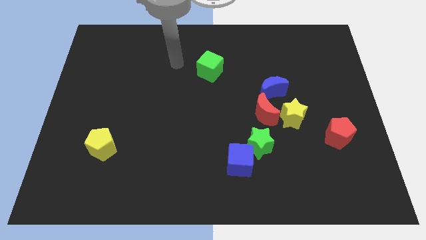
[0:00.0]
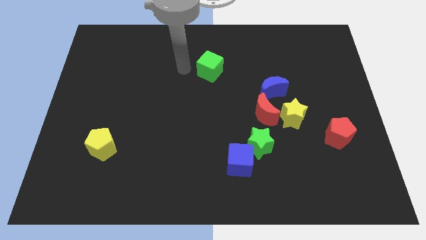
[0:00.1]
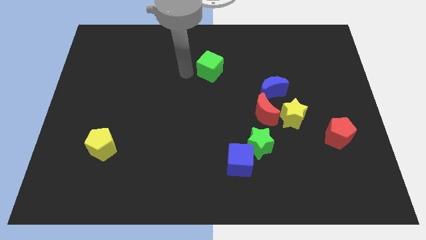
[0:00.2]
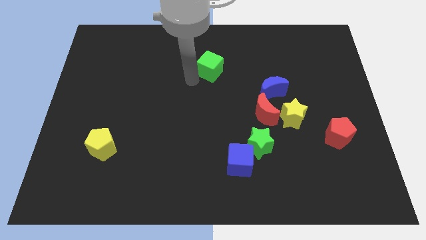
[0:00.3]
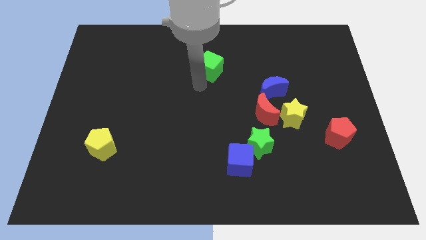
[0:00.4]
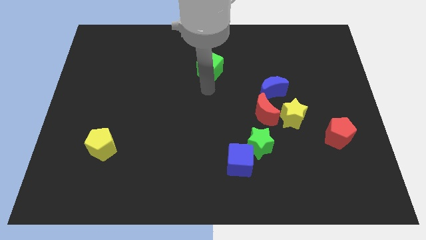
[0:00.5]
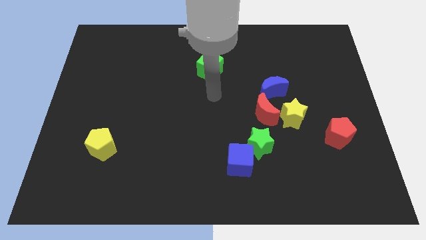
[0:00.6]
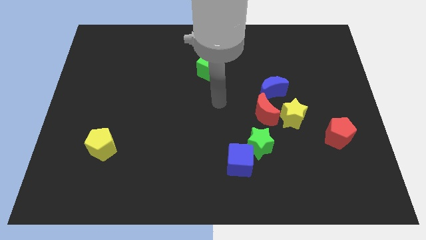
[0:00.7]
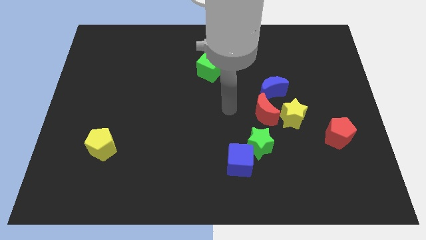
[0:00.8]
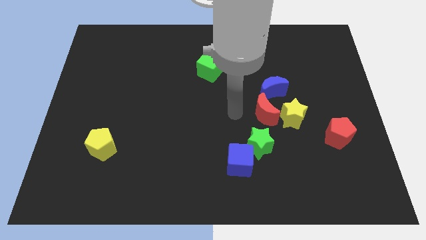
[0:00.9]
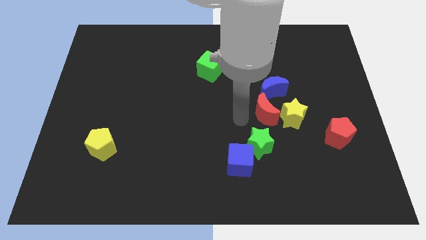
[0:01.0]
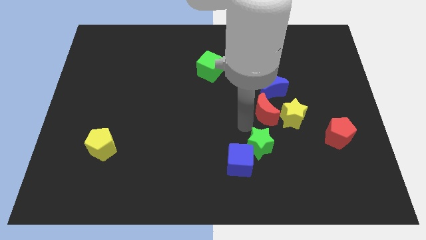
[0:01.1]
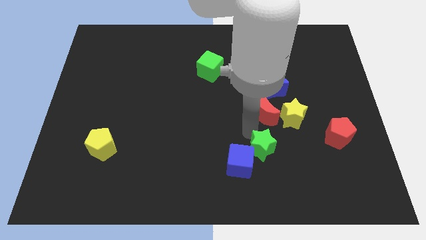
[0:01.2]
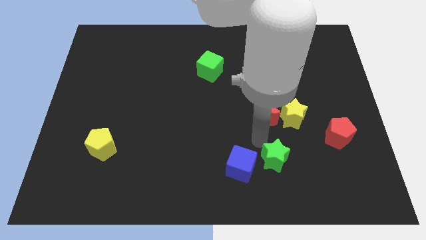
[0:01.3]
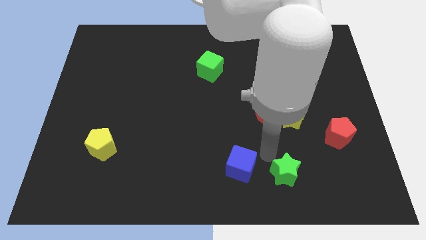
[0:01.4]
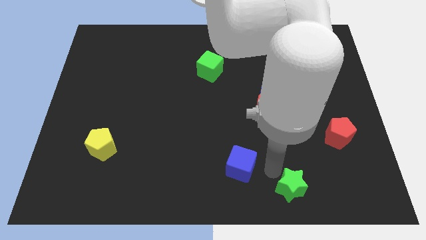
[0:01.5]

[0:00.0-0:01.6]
move the blue cube away from the green star

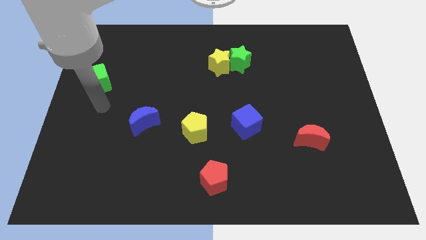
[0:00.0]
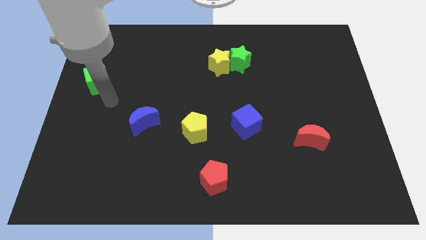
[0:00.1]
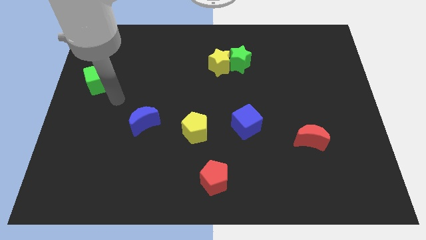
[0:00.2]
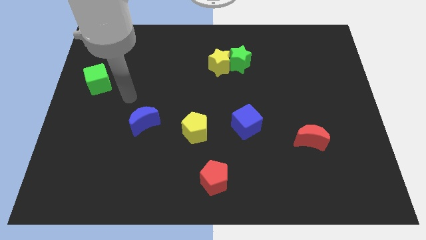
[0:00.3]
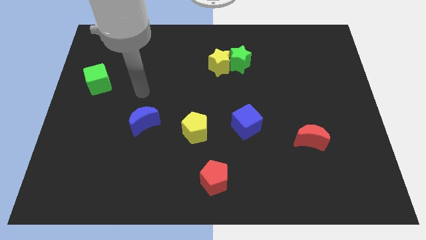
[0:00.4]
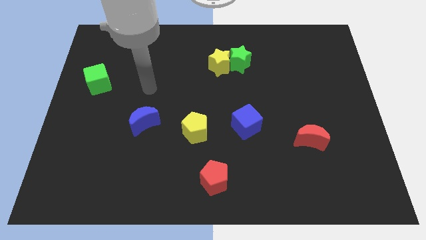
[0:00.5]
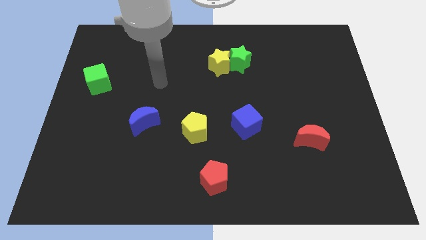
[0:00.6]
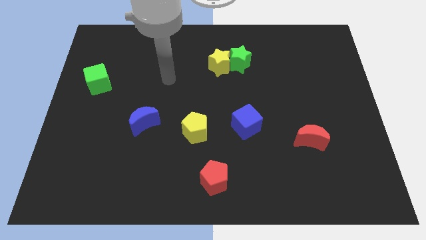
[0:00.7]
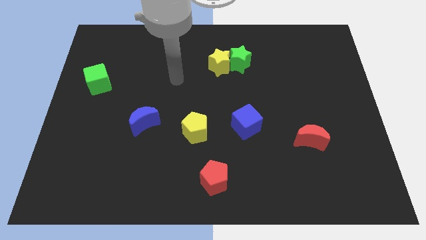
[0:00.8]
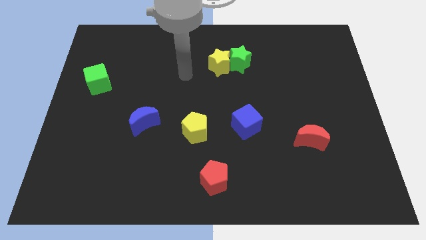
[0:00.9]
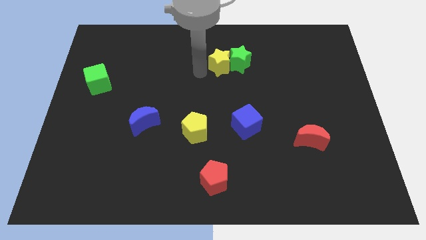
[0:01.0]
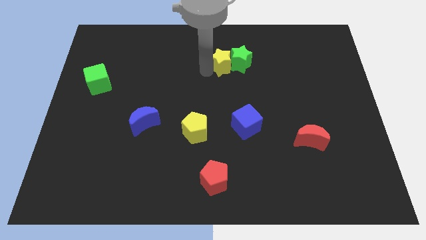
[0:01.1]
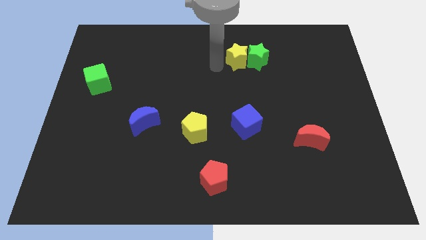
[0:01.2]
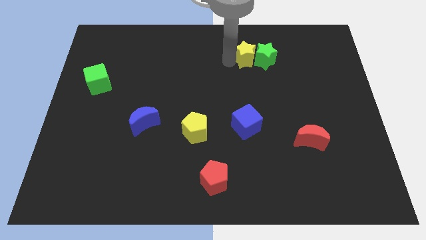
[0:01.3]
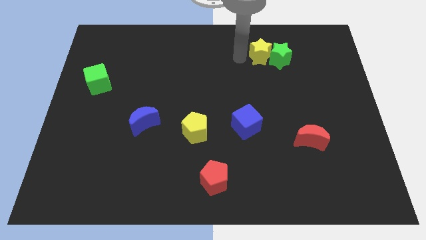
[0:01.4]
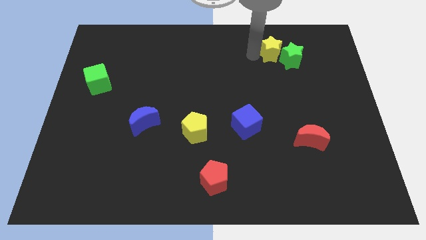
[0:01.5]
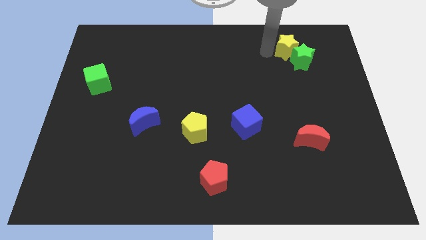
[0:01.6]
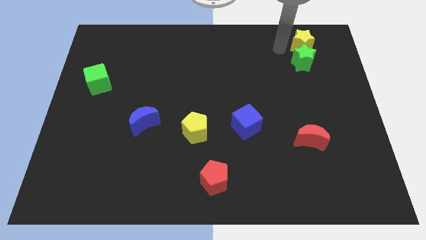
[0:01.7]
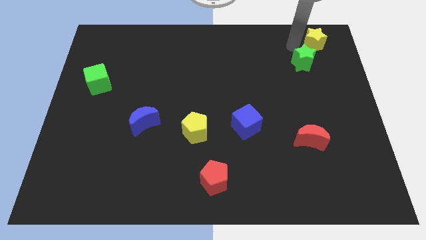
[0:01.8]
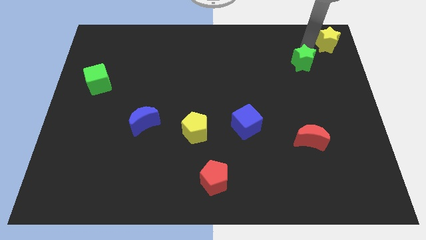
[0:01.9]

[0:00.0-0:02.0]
separate the green star from the yellow star

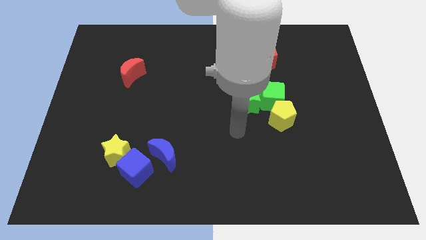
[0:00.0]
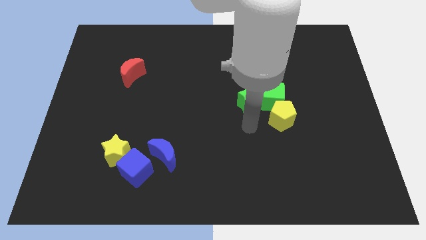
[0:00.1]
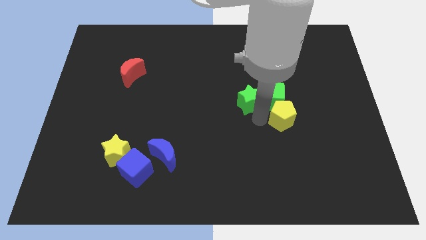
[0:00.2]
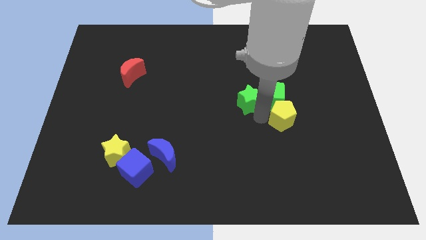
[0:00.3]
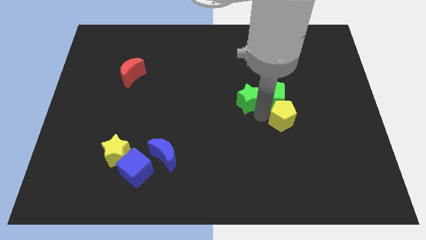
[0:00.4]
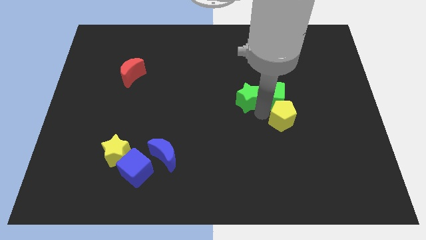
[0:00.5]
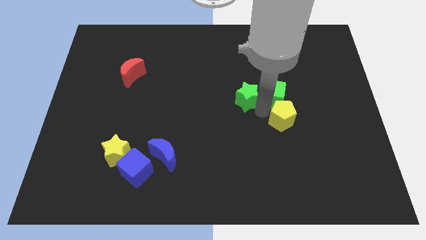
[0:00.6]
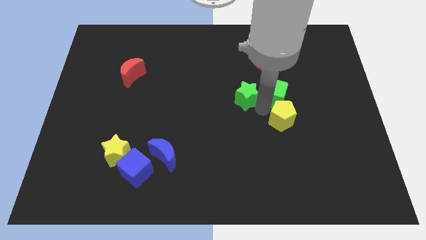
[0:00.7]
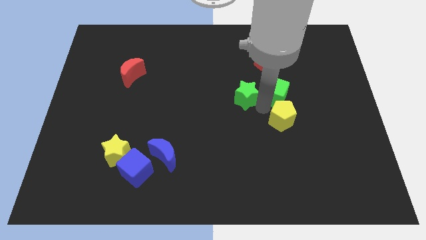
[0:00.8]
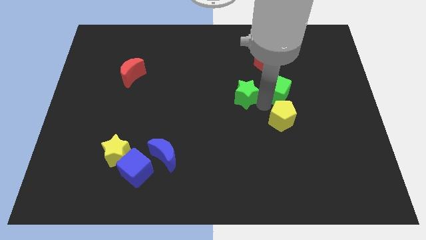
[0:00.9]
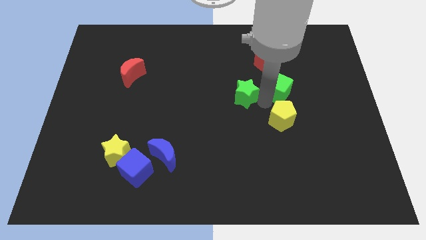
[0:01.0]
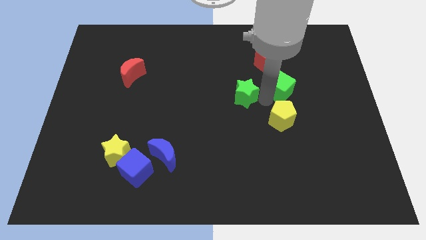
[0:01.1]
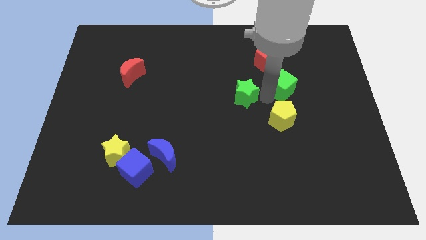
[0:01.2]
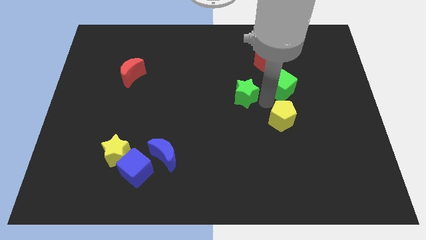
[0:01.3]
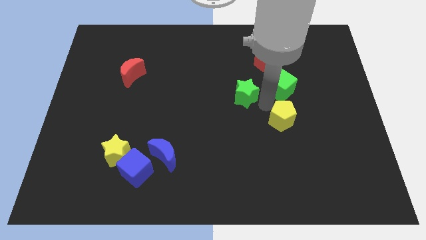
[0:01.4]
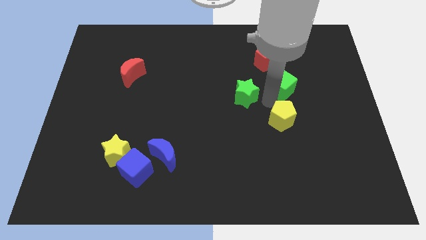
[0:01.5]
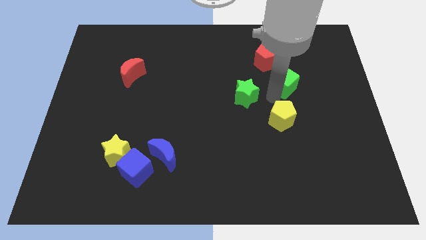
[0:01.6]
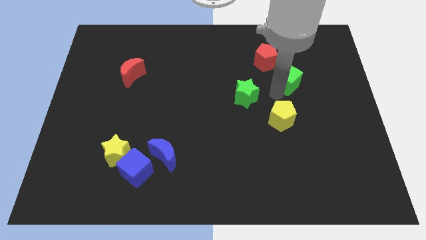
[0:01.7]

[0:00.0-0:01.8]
pull the green cube apart from the green star and yellow pentagon

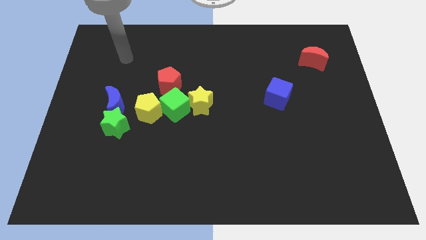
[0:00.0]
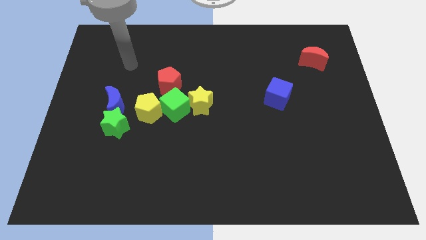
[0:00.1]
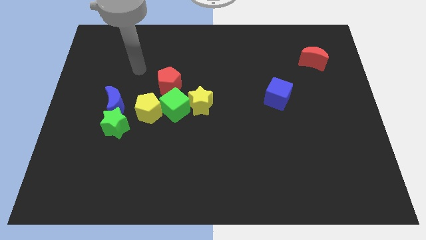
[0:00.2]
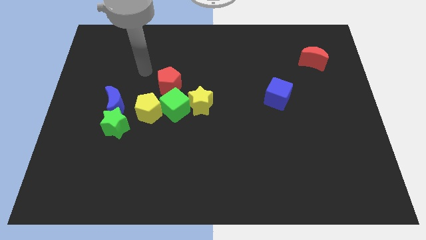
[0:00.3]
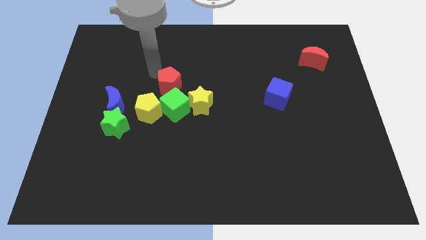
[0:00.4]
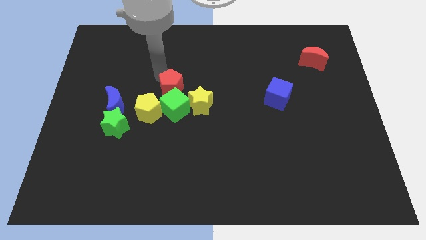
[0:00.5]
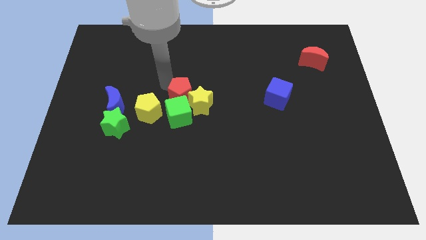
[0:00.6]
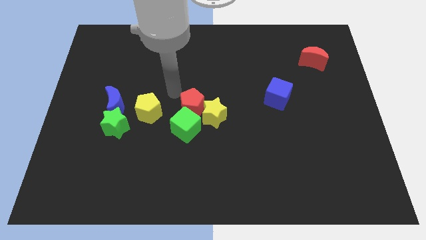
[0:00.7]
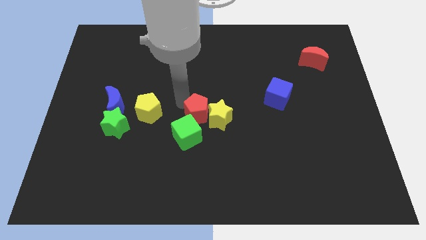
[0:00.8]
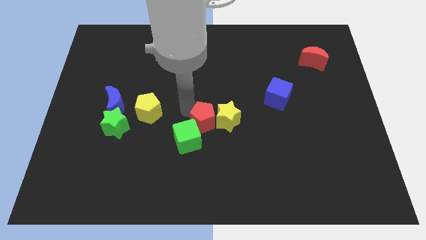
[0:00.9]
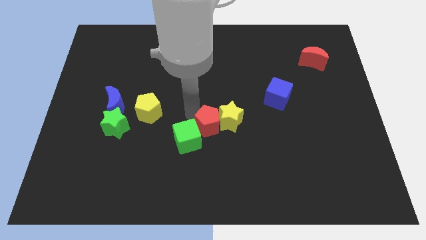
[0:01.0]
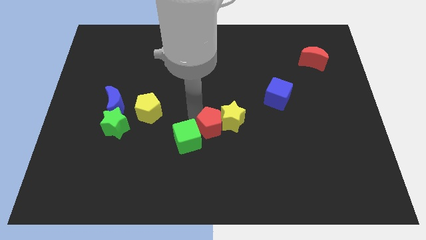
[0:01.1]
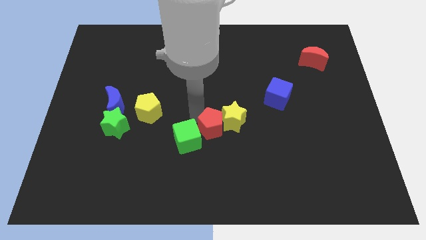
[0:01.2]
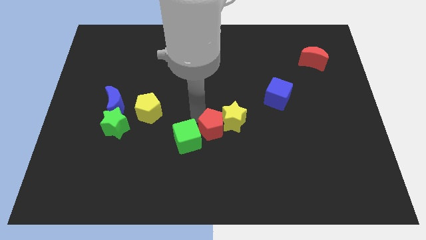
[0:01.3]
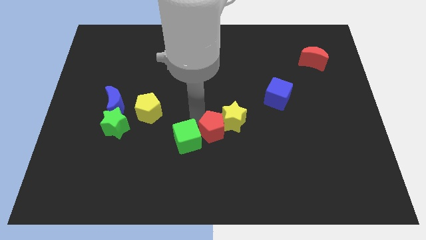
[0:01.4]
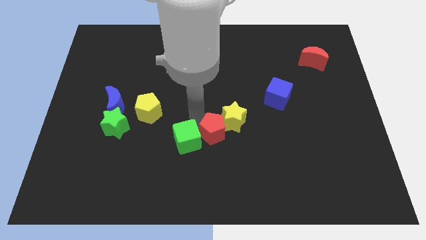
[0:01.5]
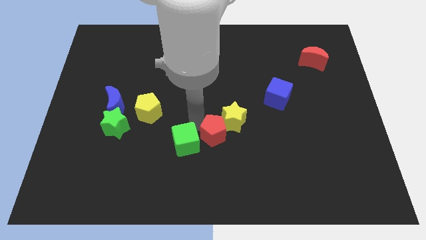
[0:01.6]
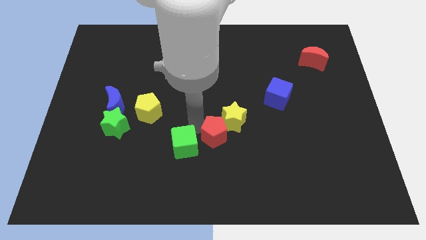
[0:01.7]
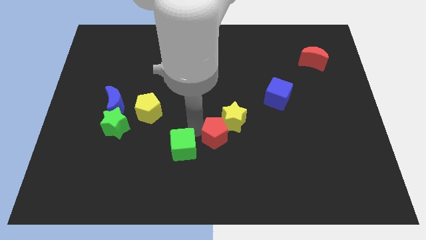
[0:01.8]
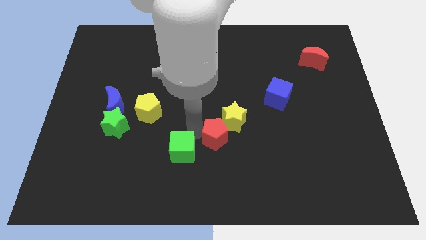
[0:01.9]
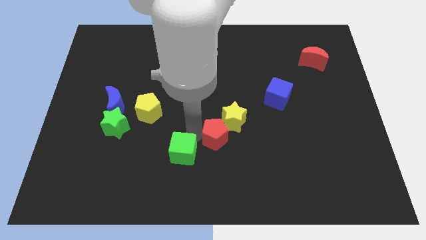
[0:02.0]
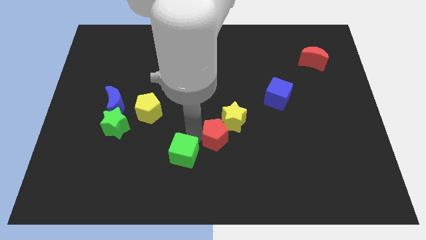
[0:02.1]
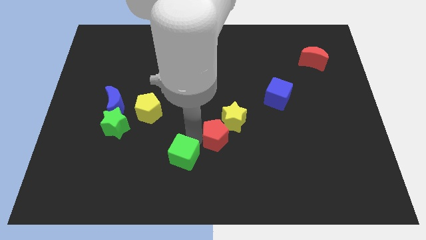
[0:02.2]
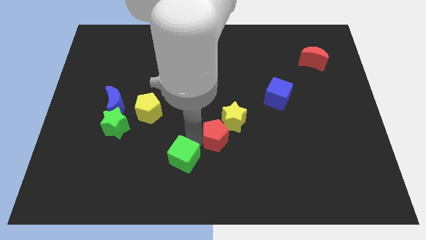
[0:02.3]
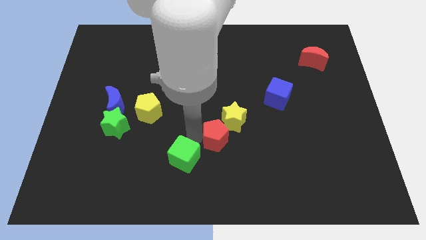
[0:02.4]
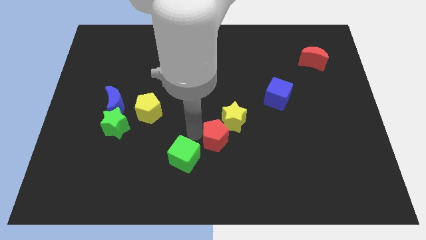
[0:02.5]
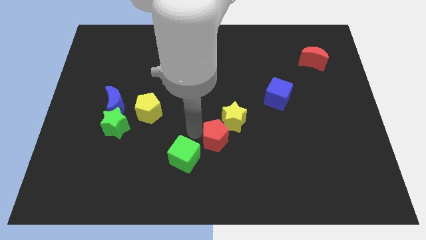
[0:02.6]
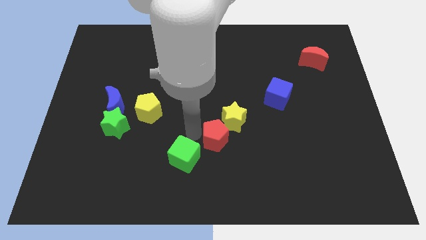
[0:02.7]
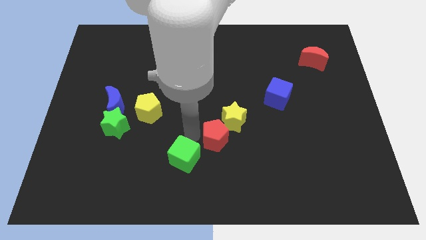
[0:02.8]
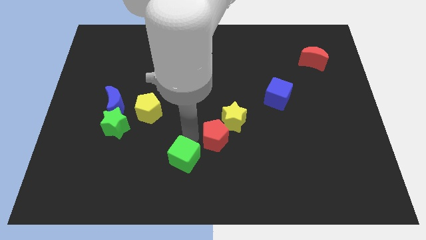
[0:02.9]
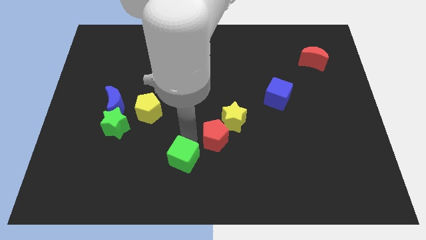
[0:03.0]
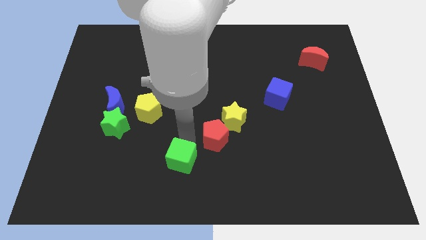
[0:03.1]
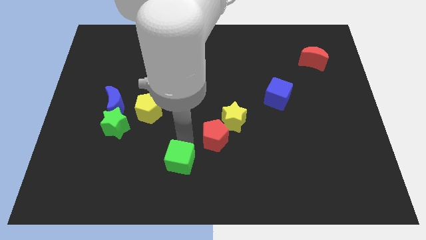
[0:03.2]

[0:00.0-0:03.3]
separate the green cube from the yellow star, yellow pentagon, and red pentagon

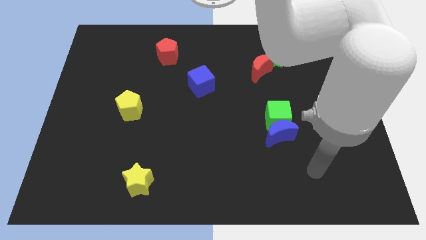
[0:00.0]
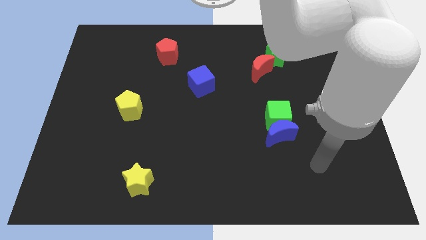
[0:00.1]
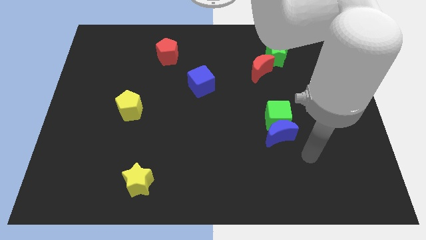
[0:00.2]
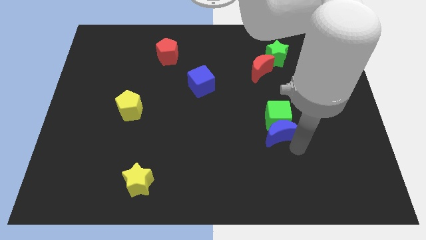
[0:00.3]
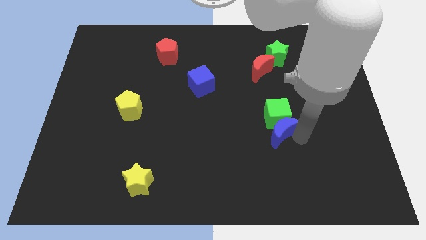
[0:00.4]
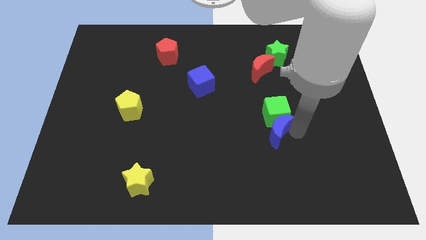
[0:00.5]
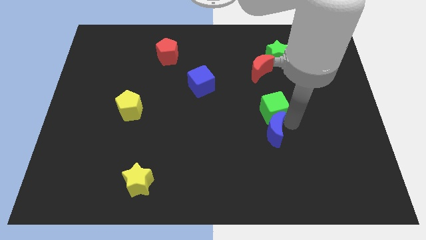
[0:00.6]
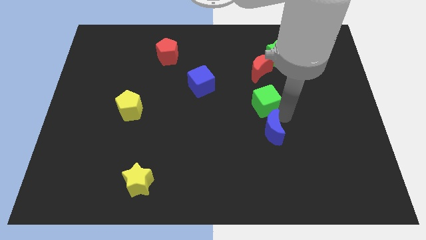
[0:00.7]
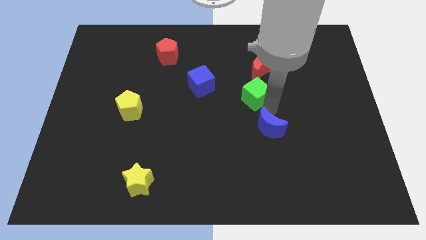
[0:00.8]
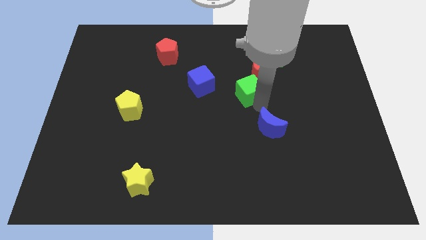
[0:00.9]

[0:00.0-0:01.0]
separate the blue moon from the green cube
